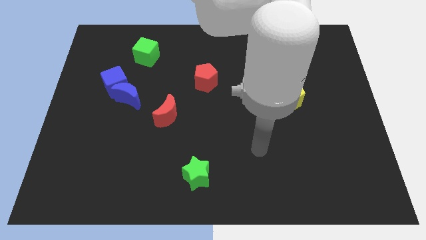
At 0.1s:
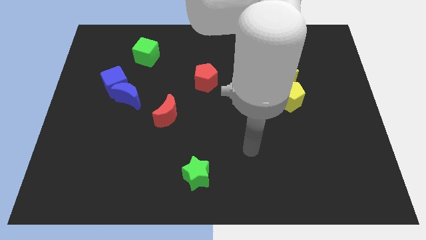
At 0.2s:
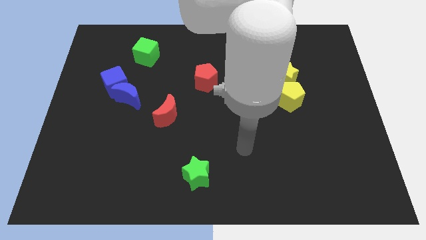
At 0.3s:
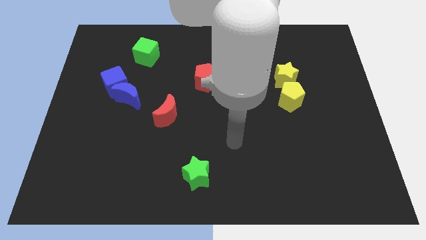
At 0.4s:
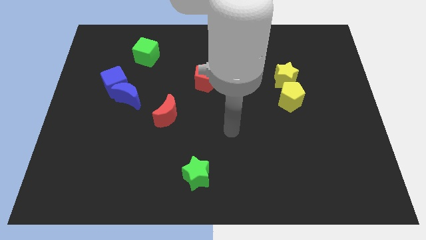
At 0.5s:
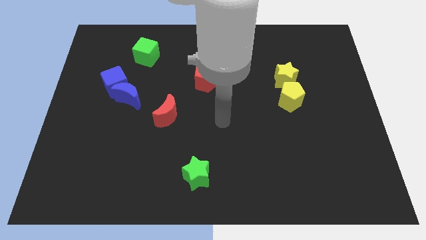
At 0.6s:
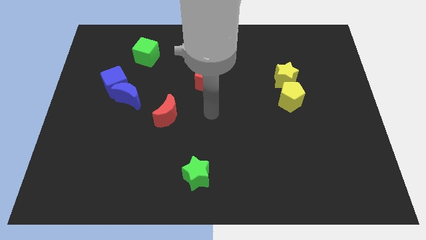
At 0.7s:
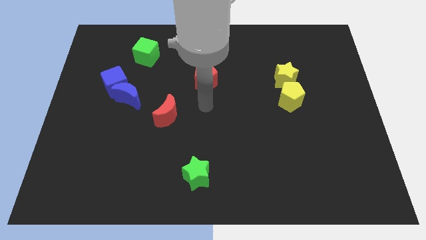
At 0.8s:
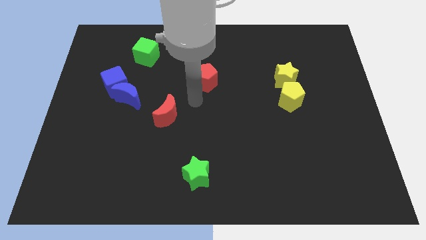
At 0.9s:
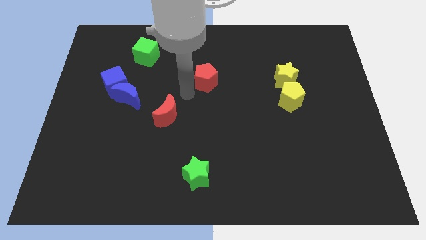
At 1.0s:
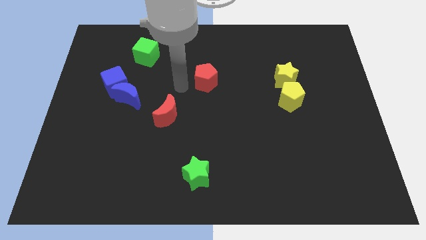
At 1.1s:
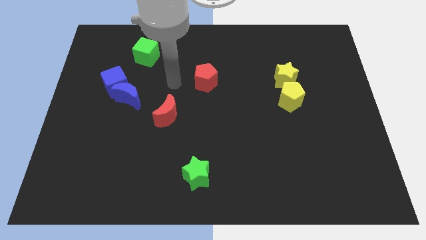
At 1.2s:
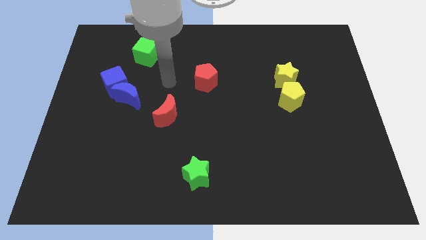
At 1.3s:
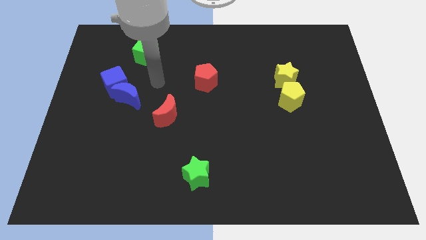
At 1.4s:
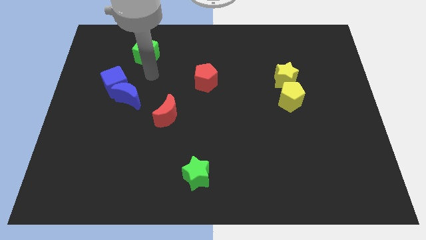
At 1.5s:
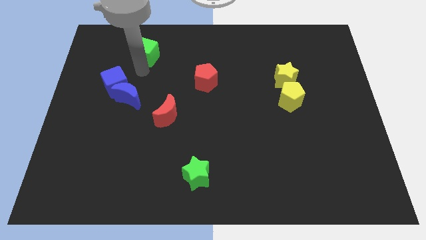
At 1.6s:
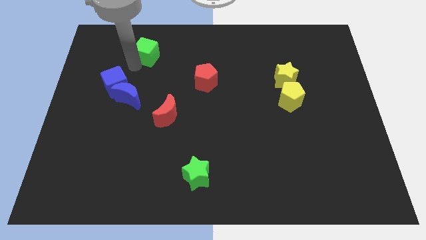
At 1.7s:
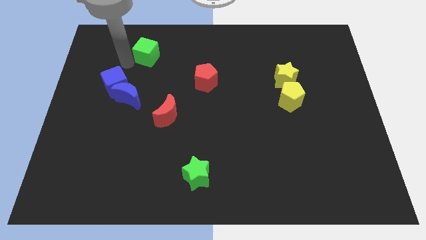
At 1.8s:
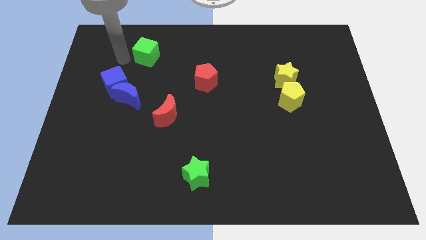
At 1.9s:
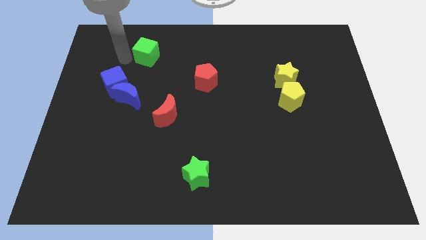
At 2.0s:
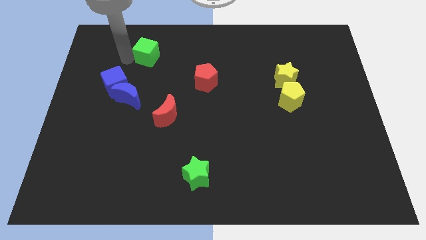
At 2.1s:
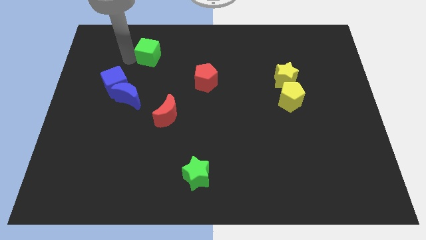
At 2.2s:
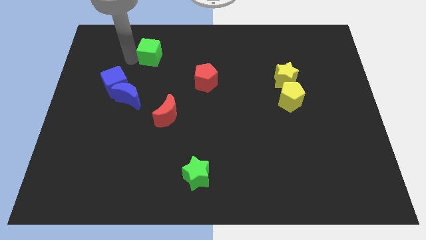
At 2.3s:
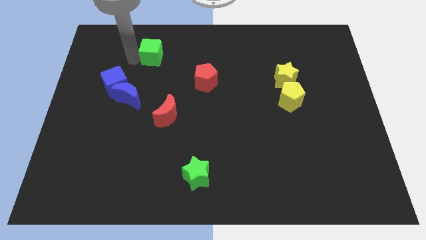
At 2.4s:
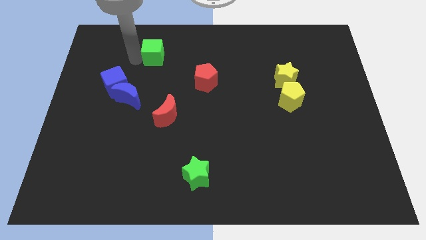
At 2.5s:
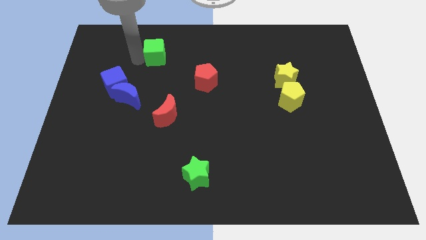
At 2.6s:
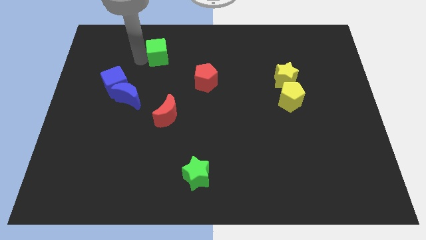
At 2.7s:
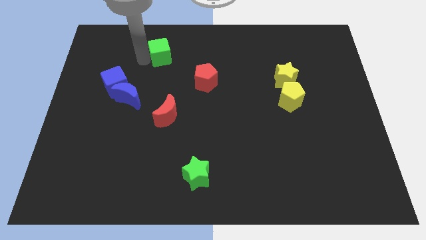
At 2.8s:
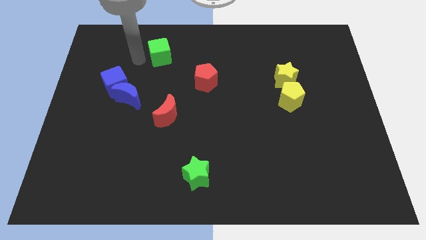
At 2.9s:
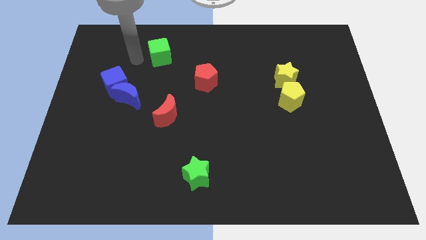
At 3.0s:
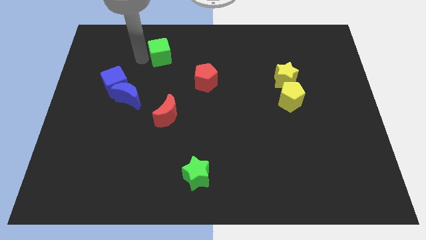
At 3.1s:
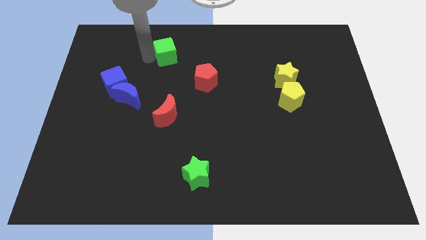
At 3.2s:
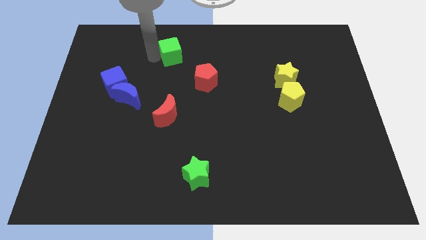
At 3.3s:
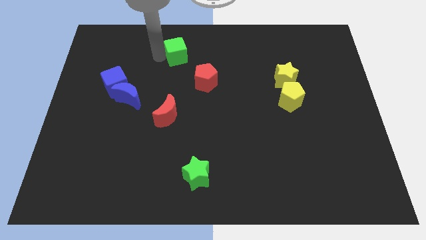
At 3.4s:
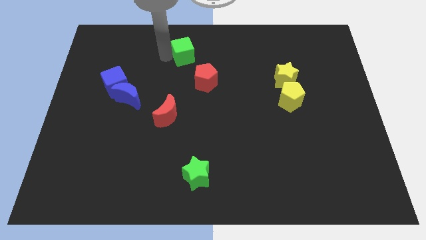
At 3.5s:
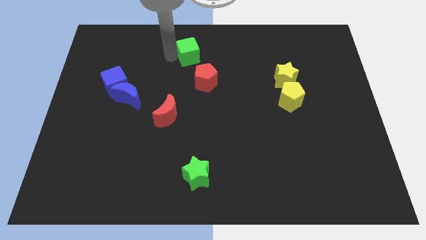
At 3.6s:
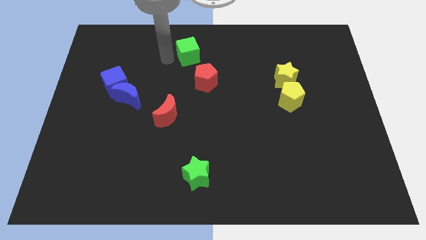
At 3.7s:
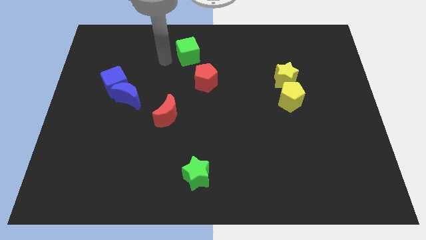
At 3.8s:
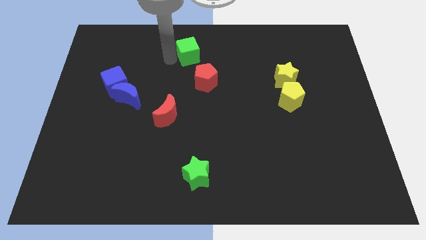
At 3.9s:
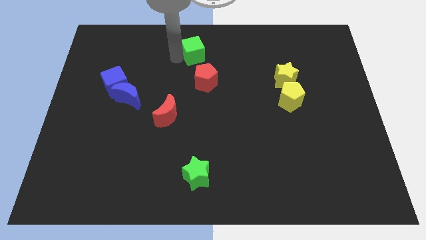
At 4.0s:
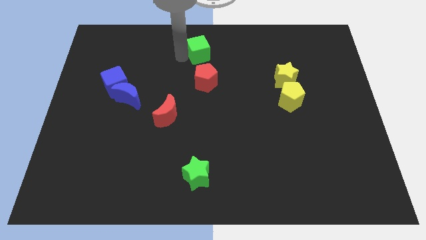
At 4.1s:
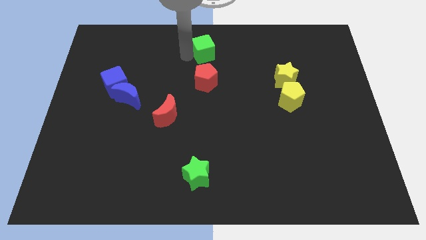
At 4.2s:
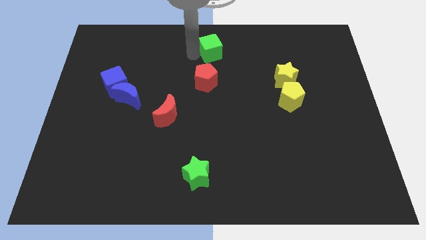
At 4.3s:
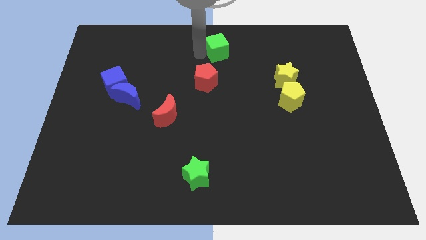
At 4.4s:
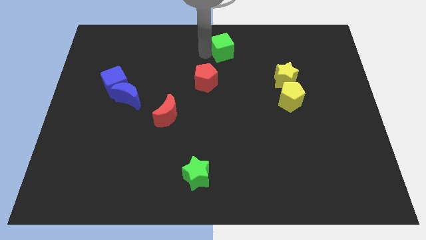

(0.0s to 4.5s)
slide the green cube to the right

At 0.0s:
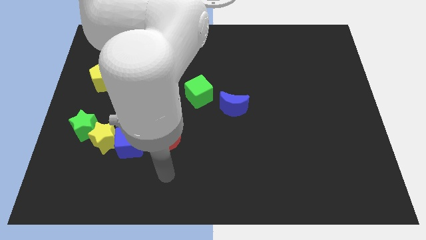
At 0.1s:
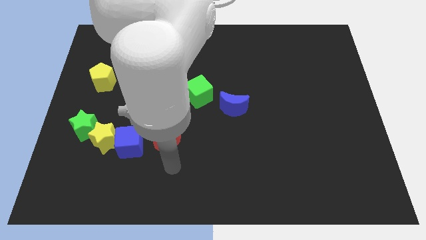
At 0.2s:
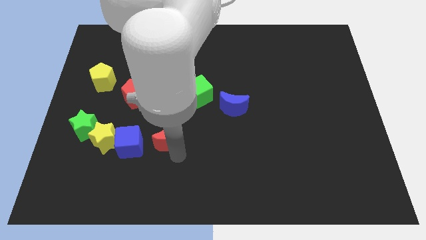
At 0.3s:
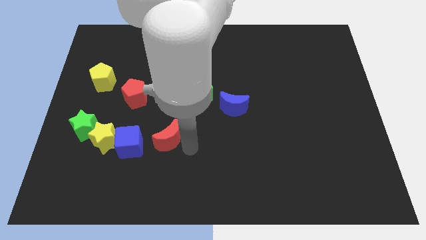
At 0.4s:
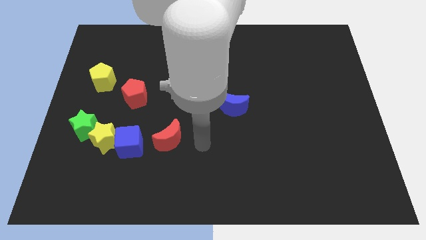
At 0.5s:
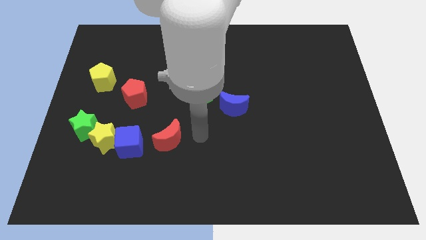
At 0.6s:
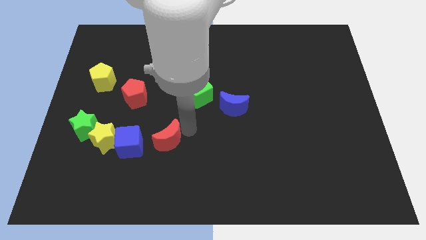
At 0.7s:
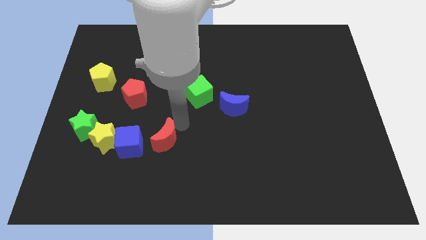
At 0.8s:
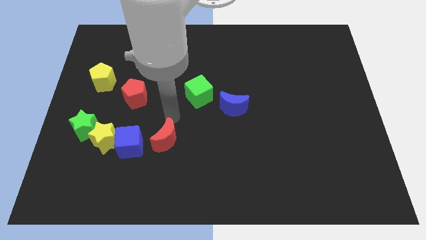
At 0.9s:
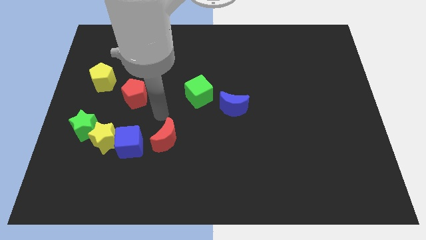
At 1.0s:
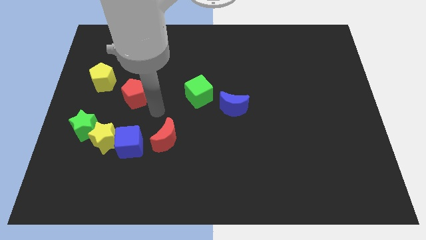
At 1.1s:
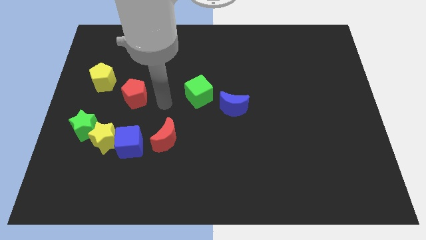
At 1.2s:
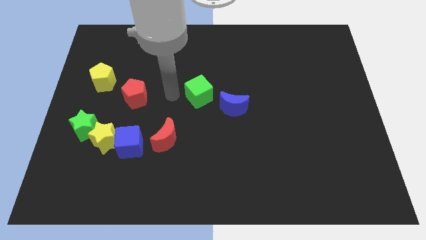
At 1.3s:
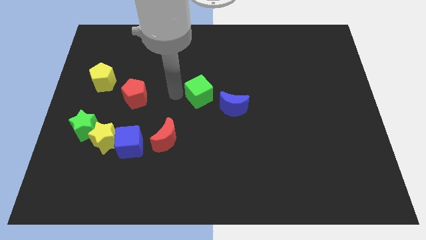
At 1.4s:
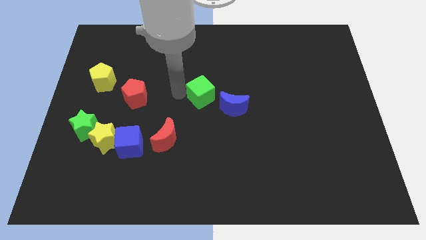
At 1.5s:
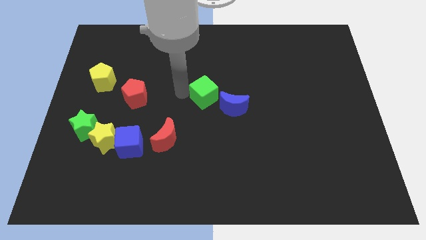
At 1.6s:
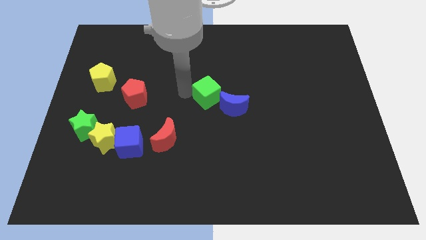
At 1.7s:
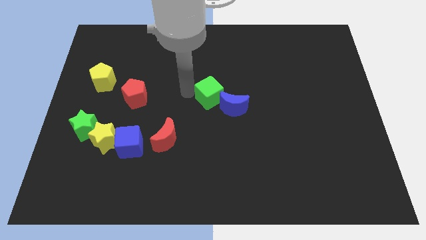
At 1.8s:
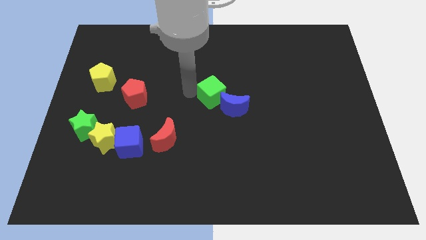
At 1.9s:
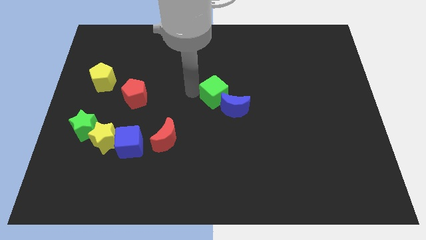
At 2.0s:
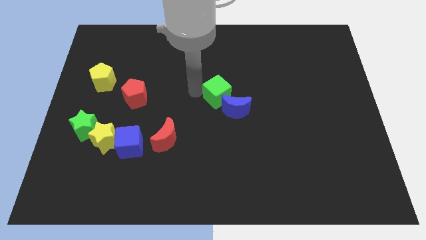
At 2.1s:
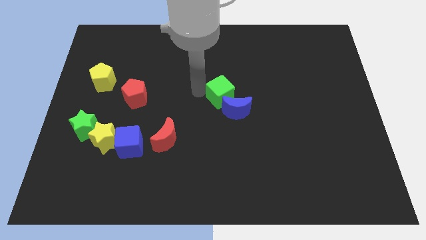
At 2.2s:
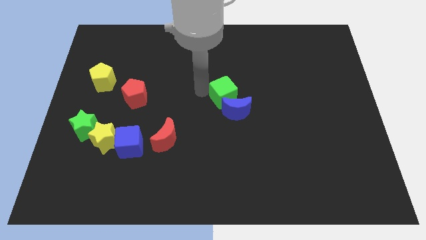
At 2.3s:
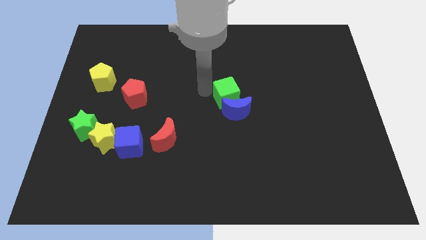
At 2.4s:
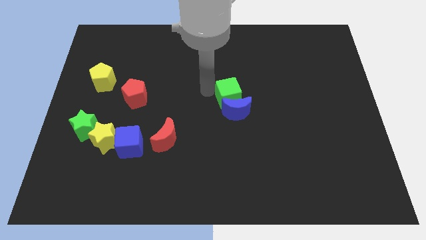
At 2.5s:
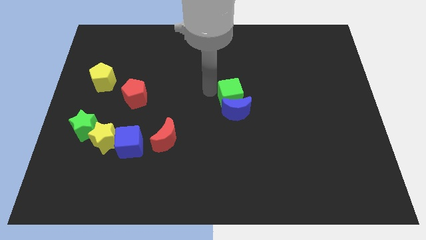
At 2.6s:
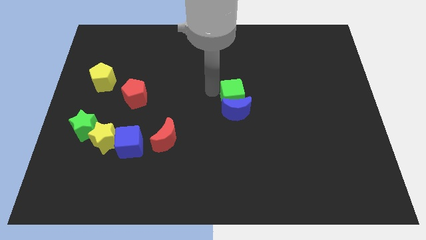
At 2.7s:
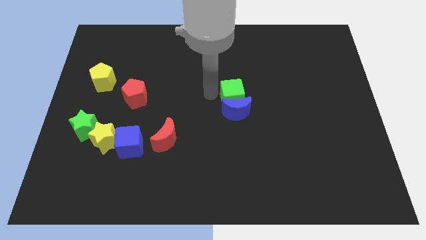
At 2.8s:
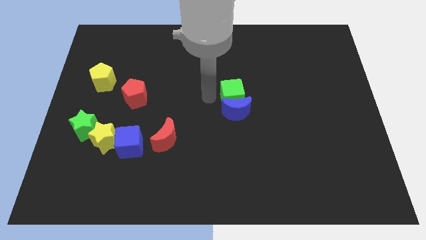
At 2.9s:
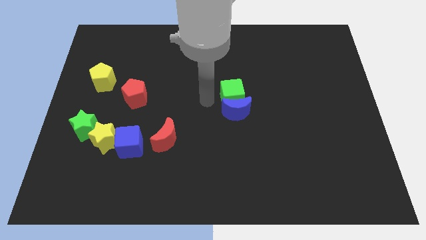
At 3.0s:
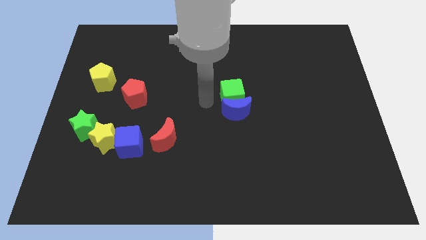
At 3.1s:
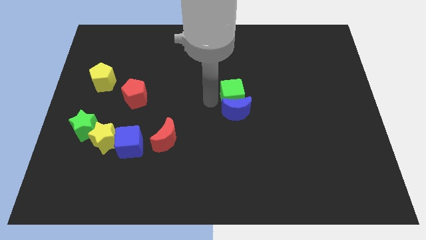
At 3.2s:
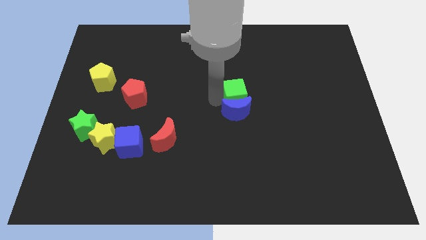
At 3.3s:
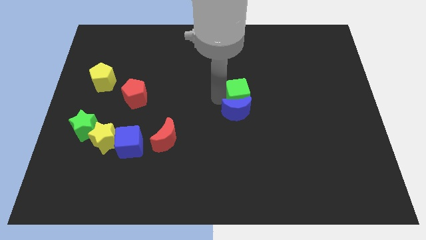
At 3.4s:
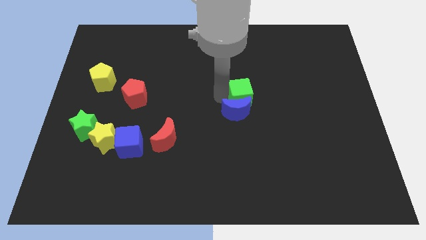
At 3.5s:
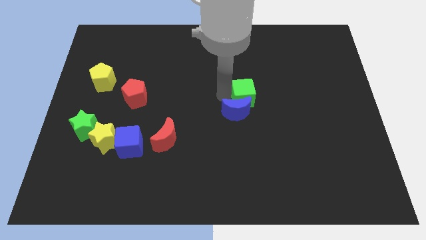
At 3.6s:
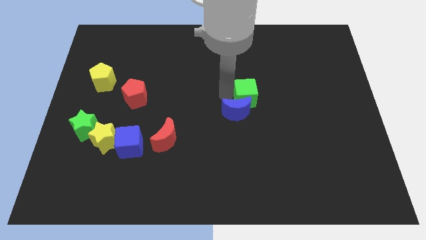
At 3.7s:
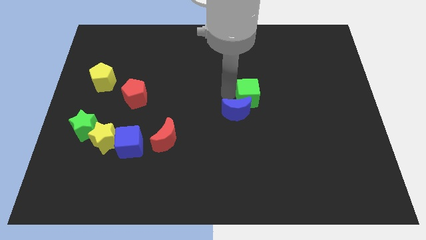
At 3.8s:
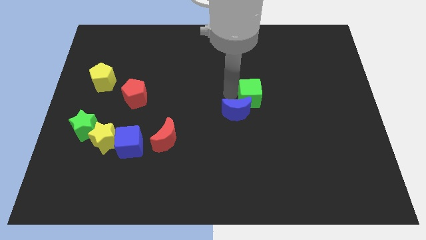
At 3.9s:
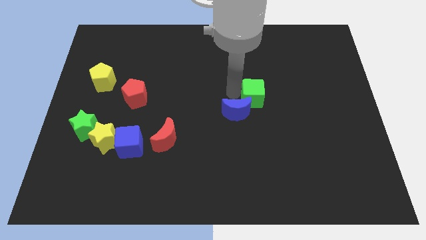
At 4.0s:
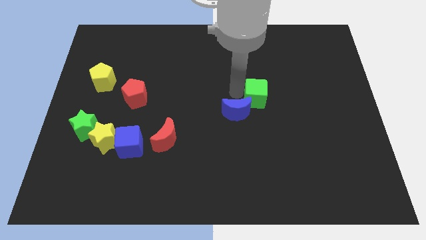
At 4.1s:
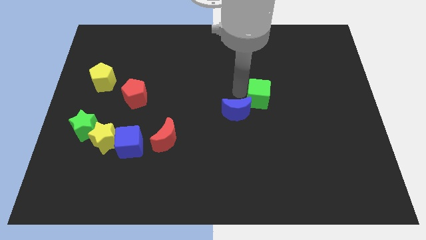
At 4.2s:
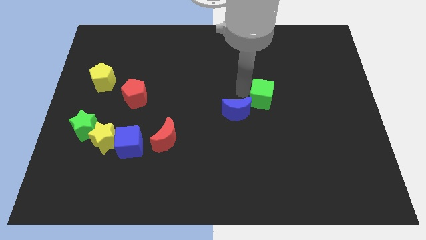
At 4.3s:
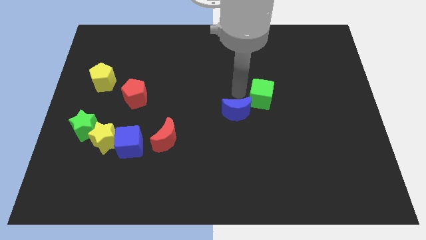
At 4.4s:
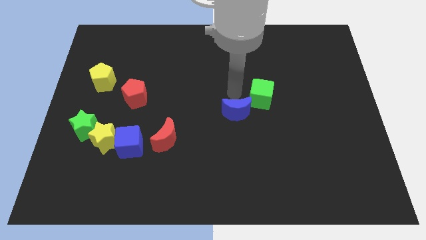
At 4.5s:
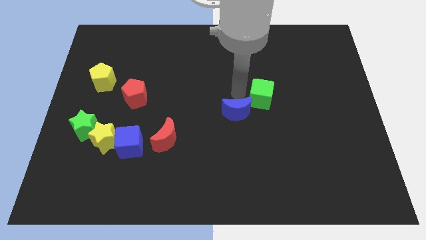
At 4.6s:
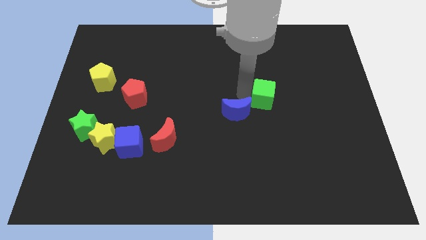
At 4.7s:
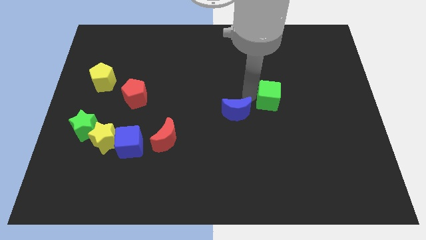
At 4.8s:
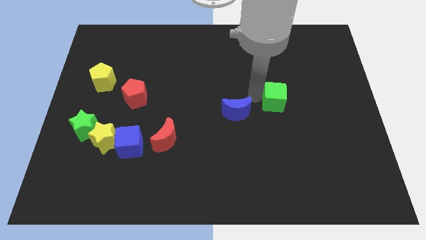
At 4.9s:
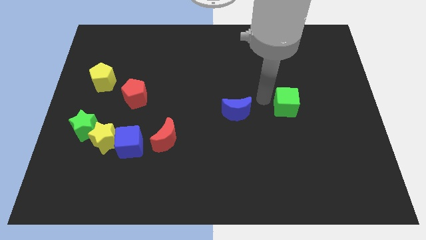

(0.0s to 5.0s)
move the green cube right
